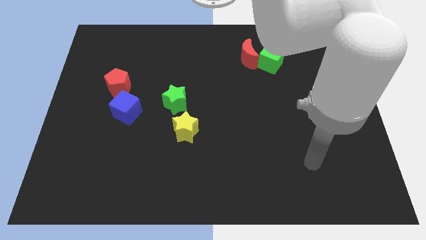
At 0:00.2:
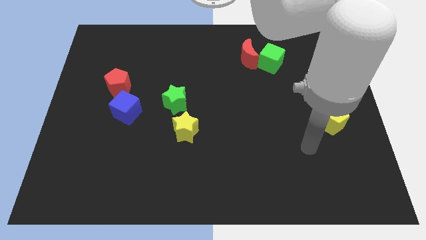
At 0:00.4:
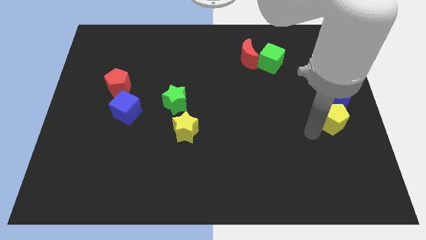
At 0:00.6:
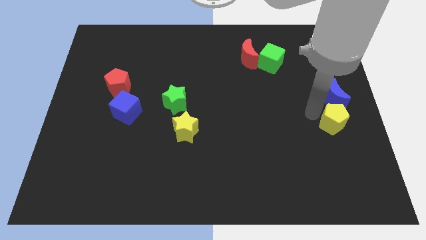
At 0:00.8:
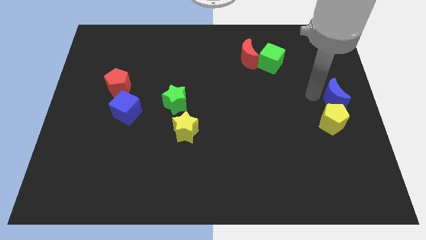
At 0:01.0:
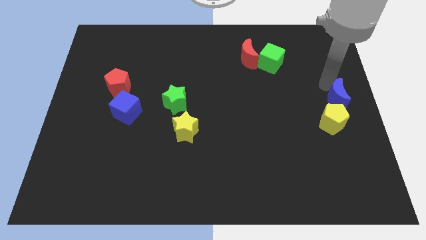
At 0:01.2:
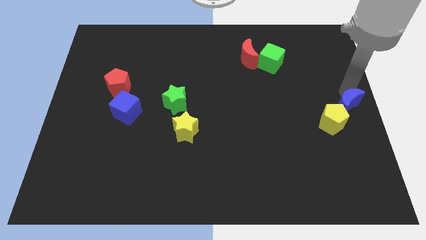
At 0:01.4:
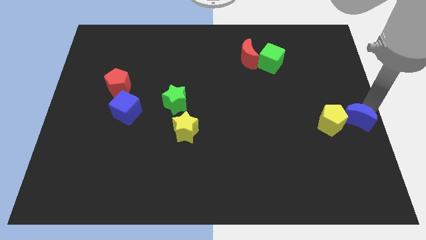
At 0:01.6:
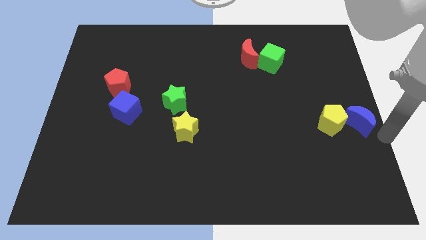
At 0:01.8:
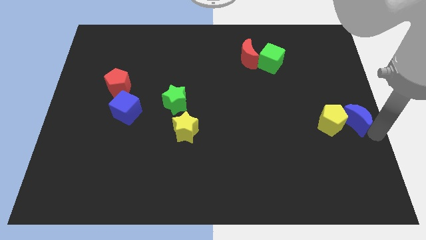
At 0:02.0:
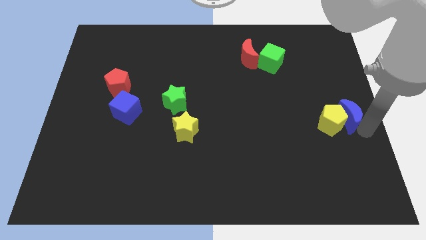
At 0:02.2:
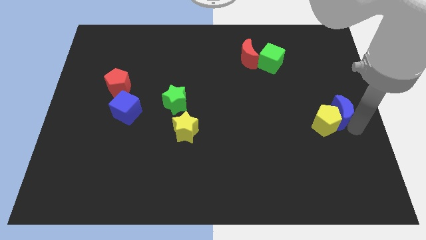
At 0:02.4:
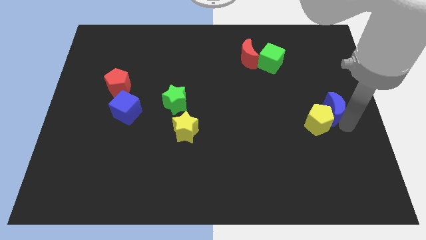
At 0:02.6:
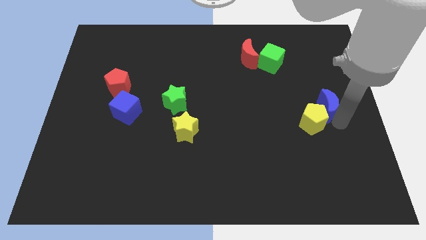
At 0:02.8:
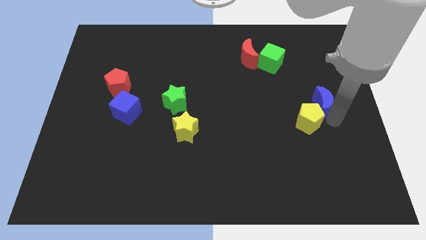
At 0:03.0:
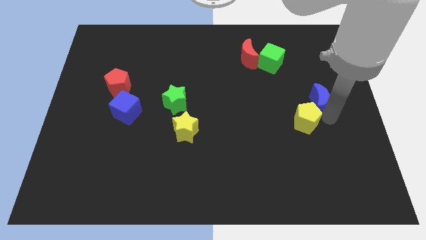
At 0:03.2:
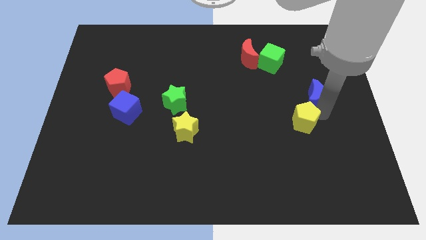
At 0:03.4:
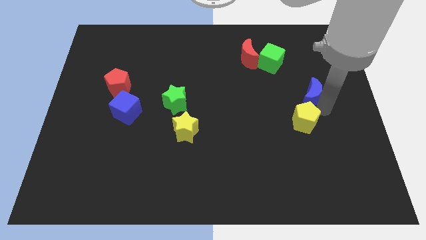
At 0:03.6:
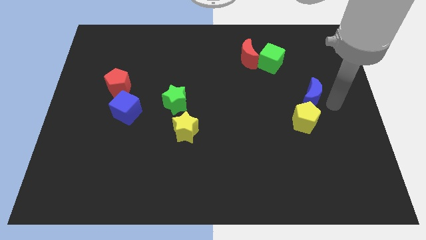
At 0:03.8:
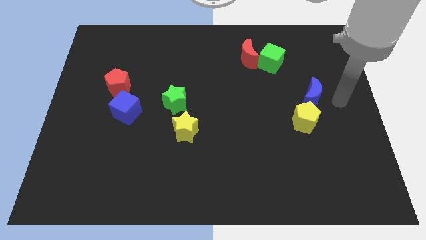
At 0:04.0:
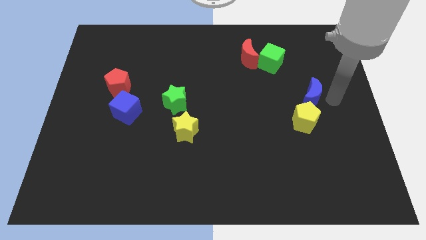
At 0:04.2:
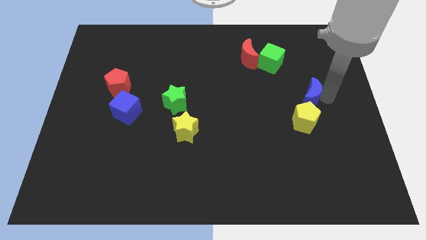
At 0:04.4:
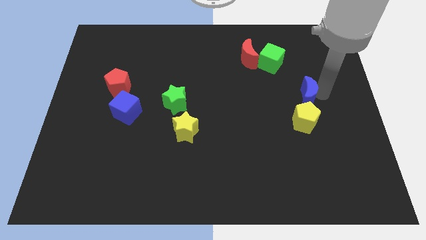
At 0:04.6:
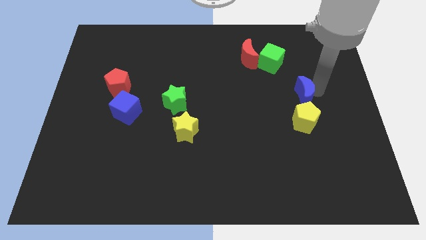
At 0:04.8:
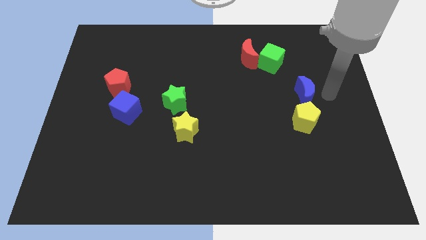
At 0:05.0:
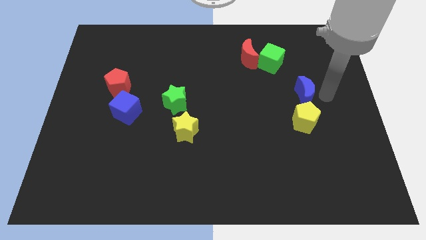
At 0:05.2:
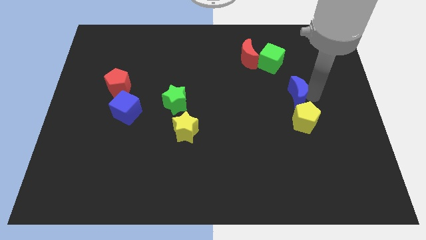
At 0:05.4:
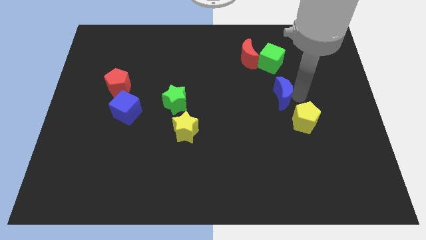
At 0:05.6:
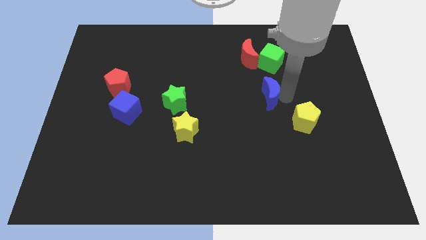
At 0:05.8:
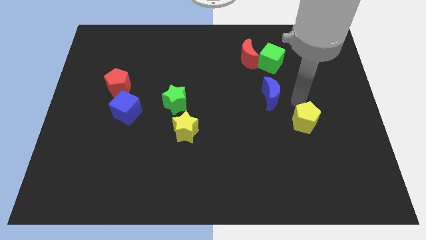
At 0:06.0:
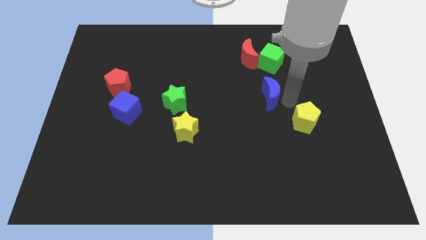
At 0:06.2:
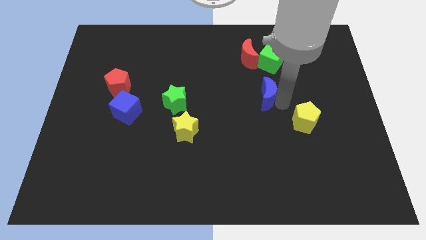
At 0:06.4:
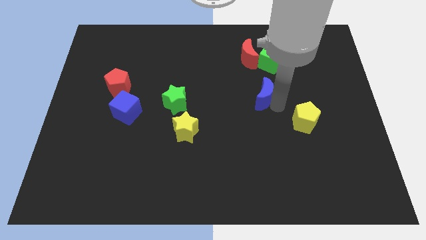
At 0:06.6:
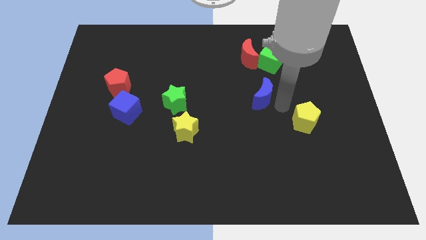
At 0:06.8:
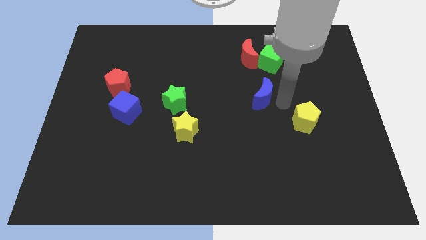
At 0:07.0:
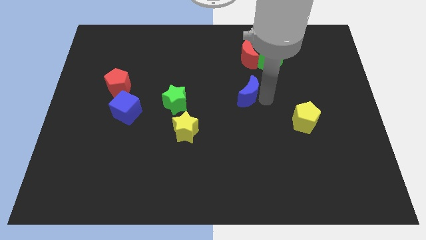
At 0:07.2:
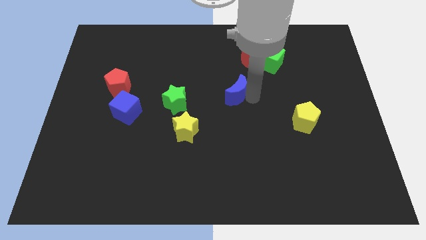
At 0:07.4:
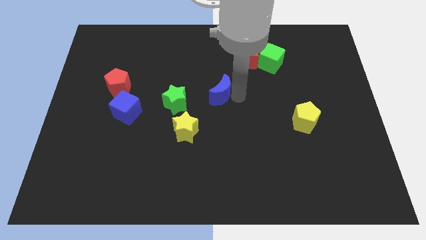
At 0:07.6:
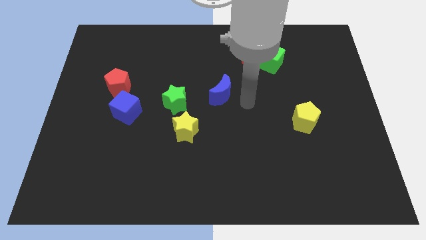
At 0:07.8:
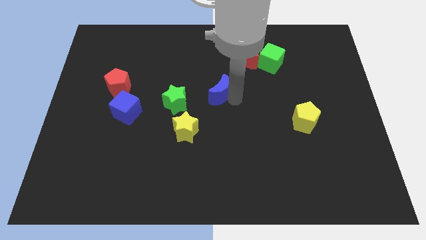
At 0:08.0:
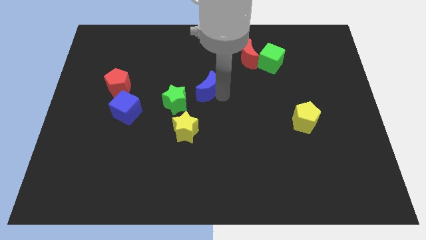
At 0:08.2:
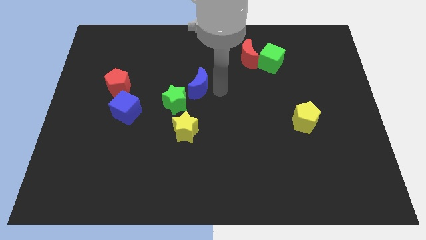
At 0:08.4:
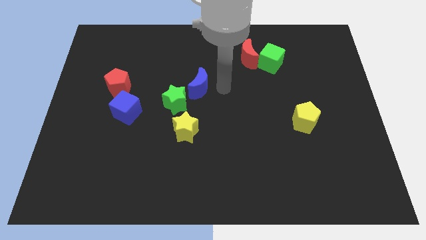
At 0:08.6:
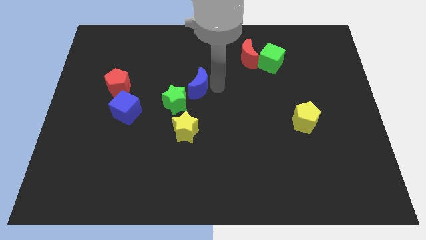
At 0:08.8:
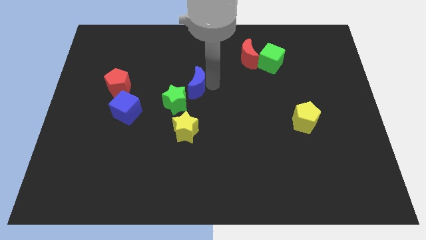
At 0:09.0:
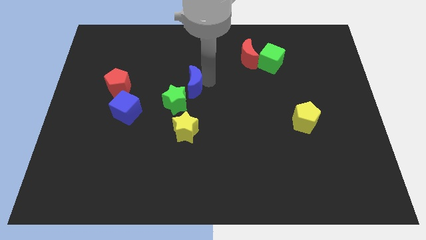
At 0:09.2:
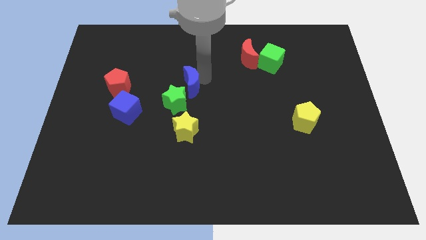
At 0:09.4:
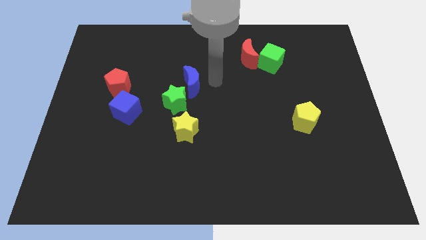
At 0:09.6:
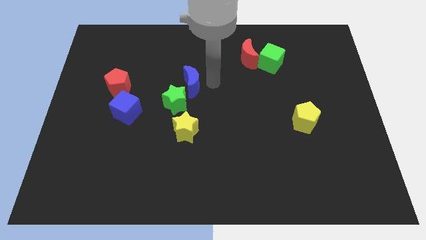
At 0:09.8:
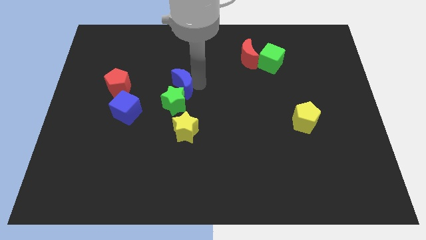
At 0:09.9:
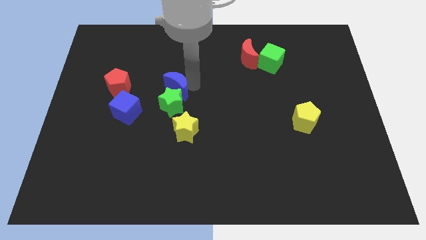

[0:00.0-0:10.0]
push the blue moon to the top left side of the green star

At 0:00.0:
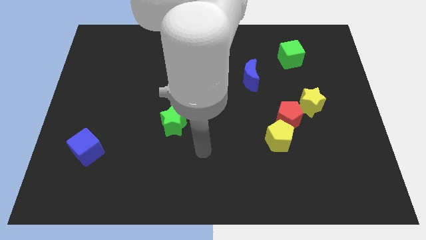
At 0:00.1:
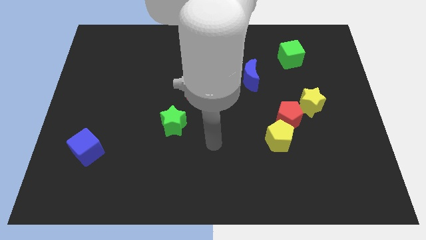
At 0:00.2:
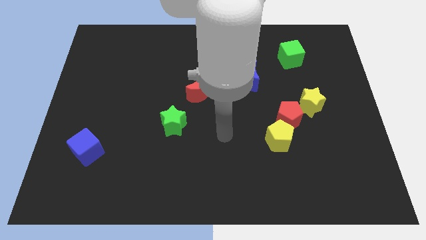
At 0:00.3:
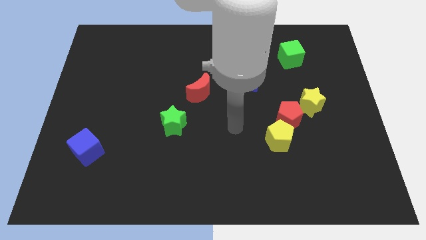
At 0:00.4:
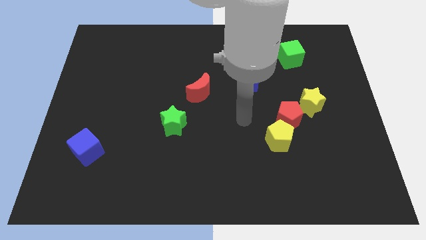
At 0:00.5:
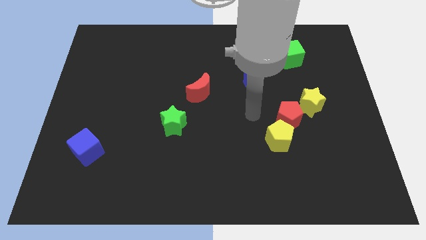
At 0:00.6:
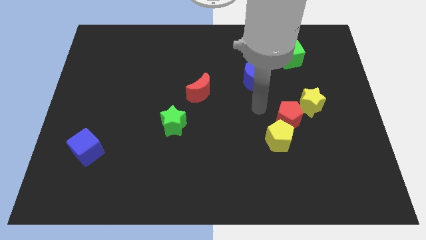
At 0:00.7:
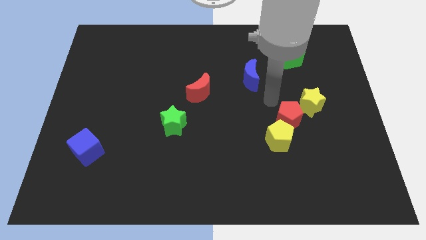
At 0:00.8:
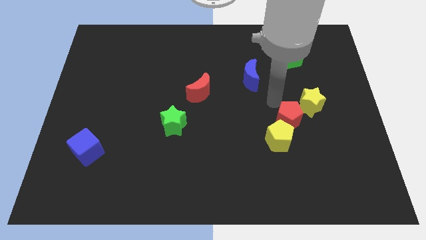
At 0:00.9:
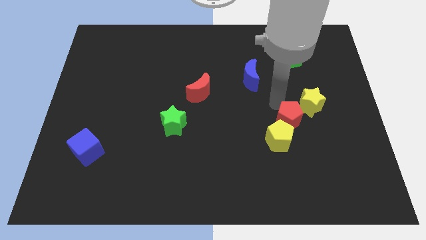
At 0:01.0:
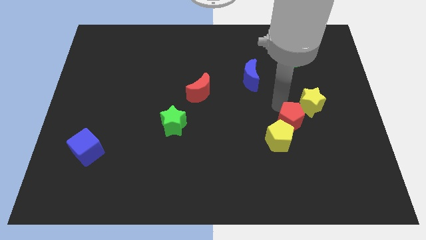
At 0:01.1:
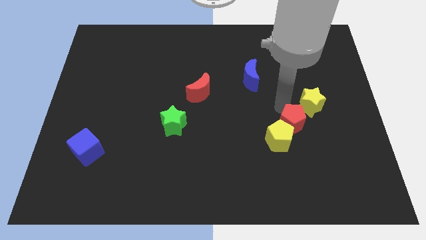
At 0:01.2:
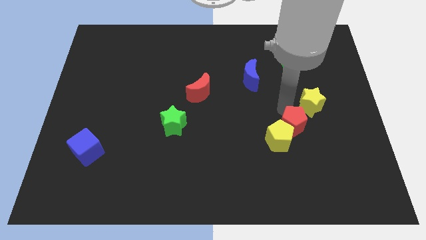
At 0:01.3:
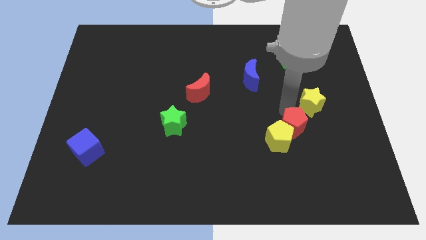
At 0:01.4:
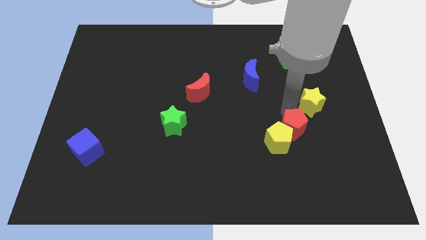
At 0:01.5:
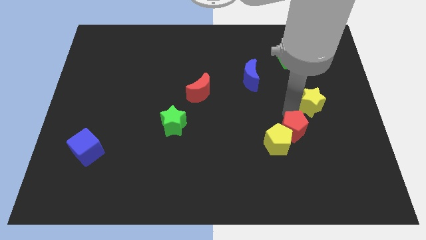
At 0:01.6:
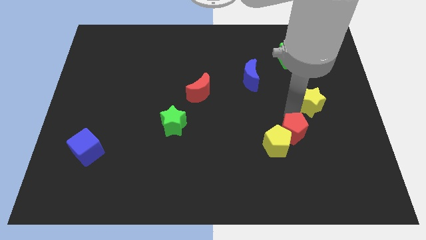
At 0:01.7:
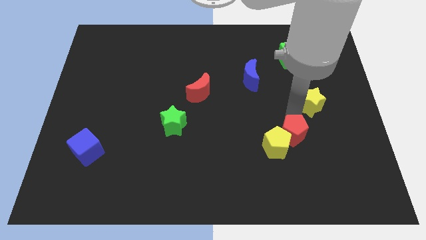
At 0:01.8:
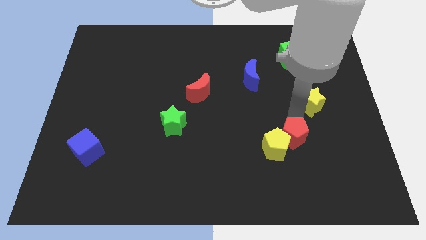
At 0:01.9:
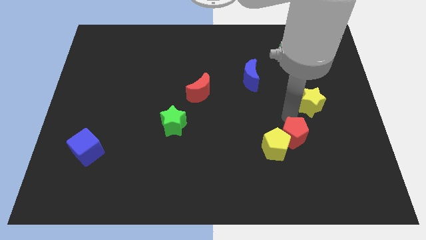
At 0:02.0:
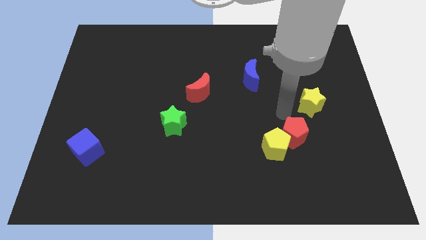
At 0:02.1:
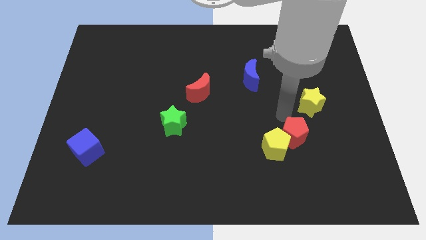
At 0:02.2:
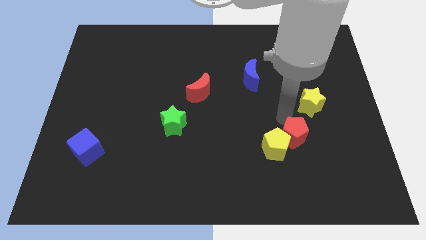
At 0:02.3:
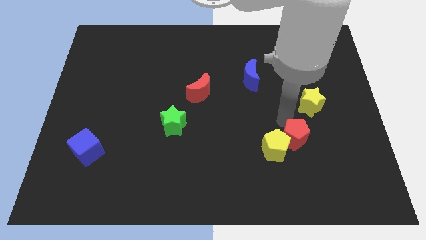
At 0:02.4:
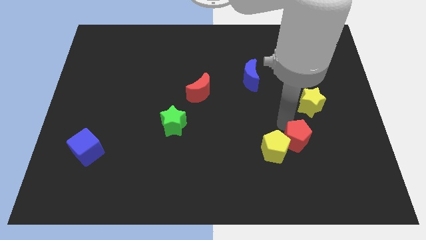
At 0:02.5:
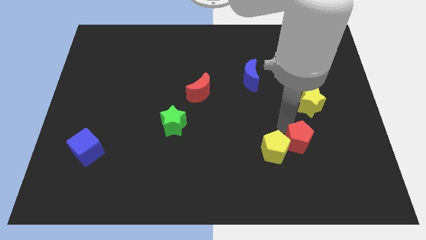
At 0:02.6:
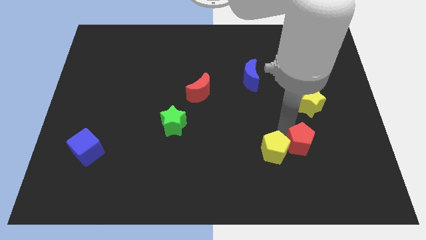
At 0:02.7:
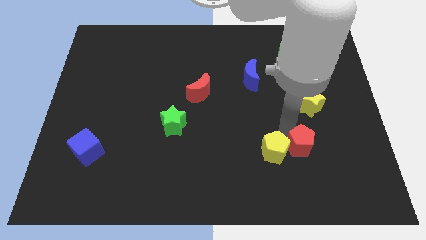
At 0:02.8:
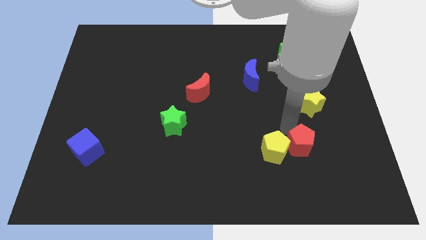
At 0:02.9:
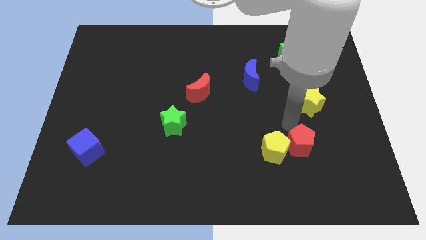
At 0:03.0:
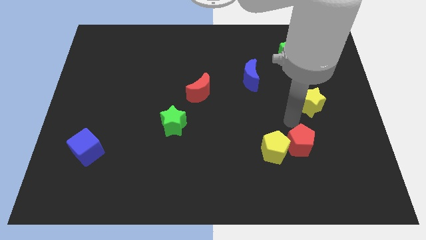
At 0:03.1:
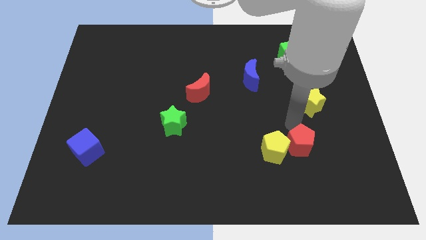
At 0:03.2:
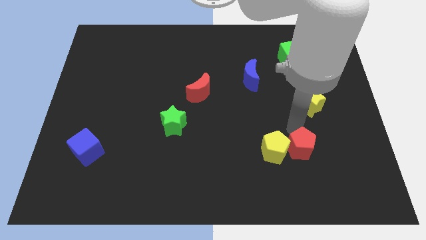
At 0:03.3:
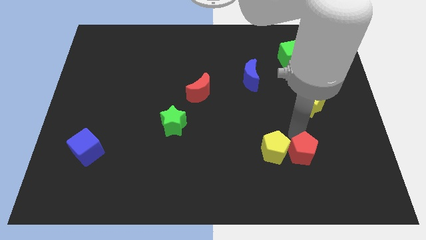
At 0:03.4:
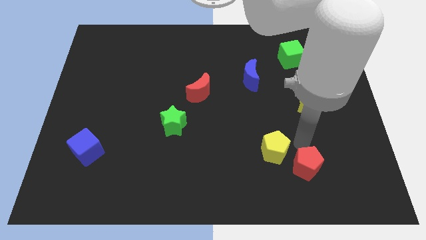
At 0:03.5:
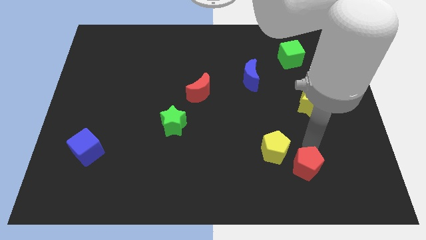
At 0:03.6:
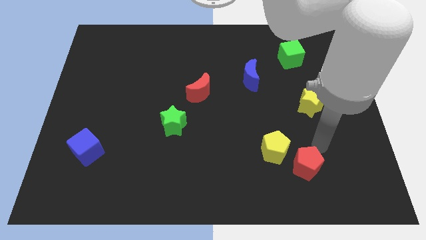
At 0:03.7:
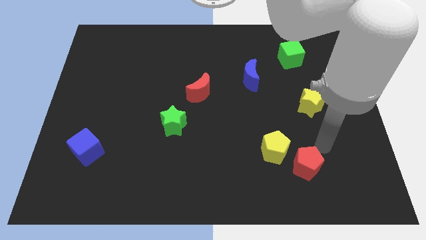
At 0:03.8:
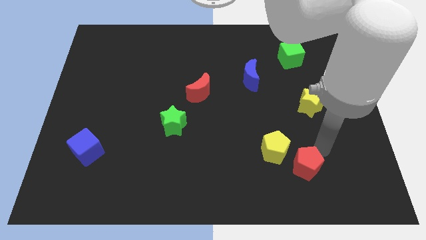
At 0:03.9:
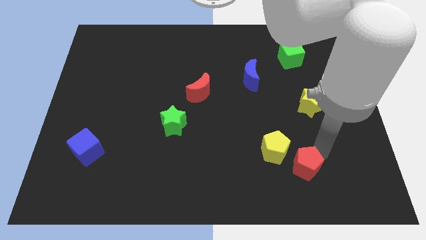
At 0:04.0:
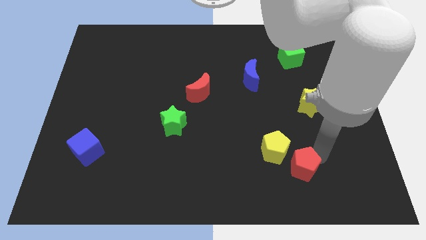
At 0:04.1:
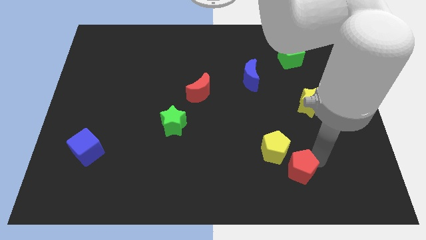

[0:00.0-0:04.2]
move the red pentagon below the yellow pentagon
